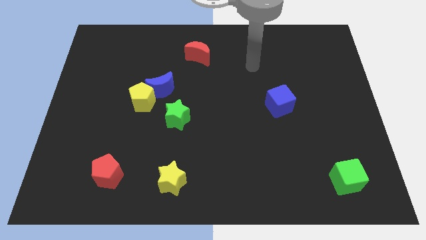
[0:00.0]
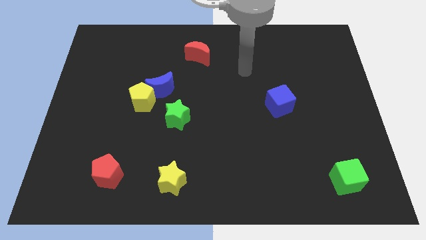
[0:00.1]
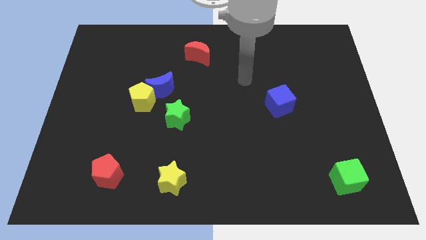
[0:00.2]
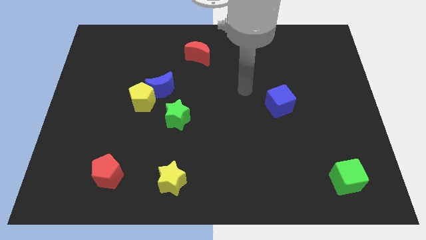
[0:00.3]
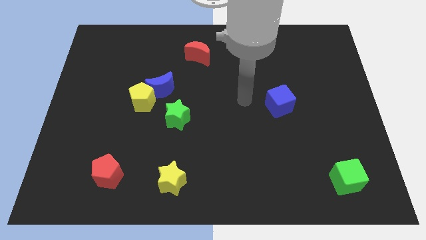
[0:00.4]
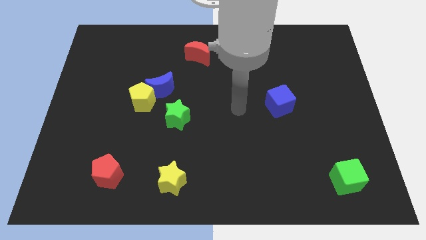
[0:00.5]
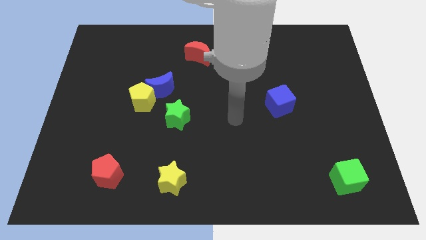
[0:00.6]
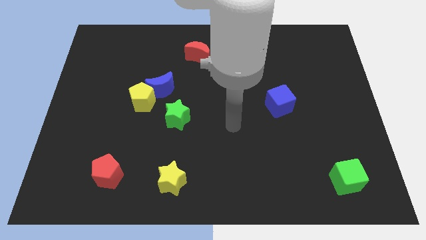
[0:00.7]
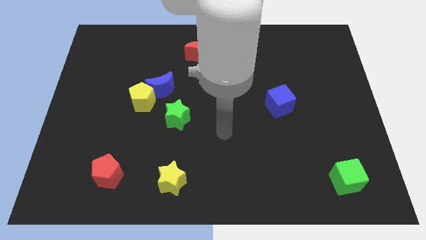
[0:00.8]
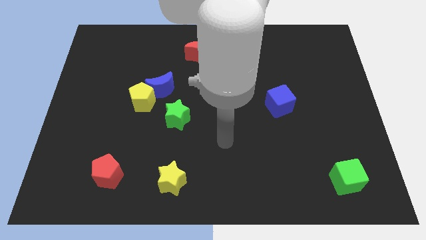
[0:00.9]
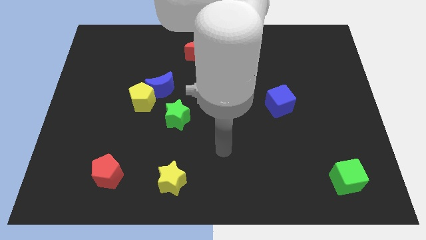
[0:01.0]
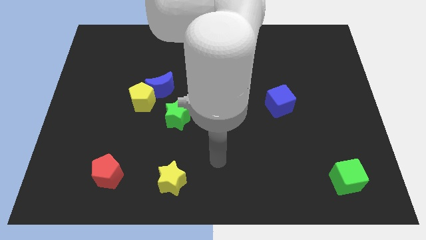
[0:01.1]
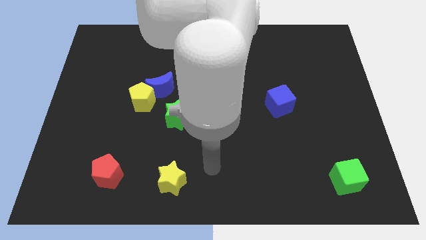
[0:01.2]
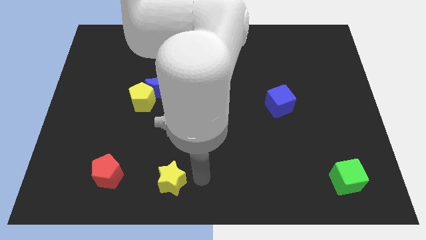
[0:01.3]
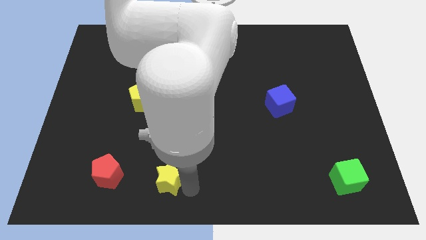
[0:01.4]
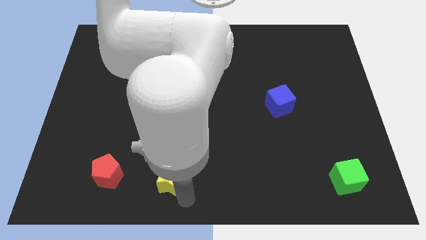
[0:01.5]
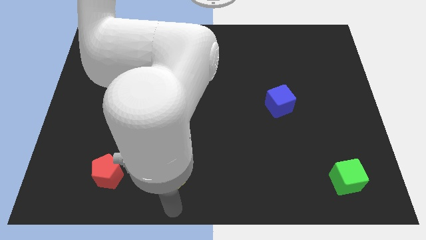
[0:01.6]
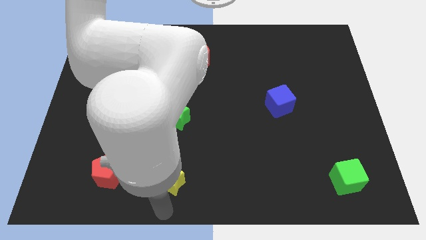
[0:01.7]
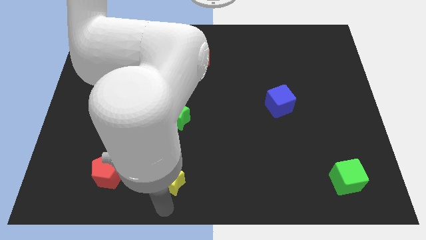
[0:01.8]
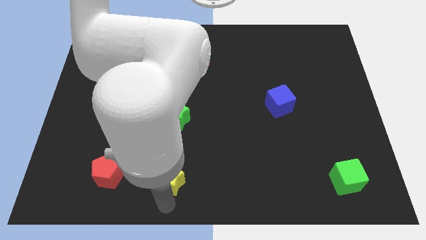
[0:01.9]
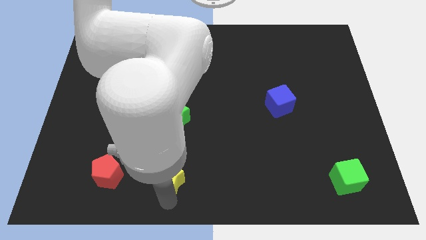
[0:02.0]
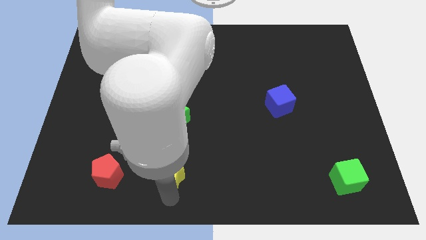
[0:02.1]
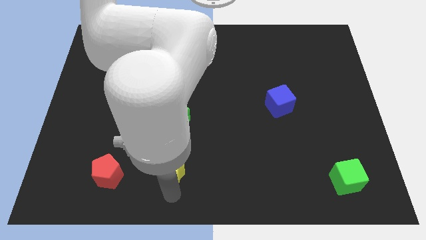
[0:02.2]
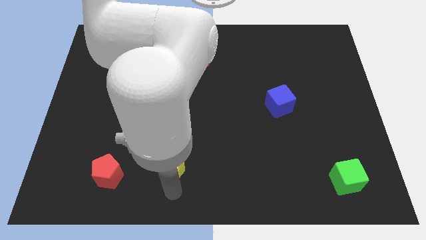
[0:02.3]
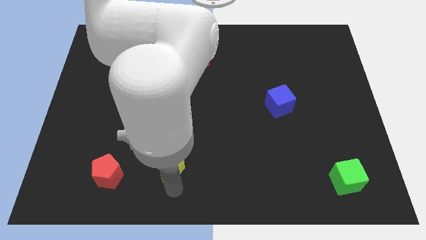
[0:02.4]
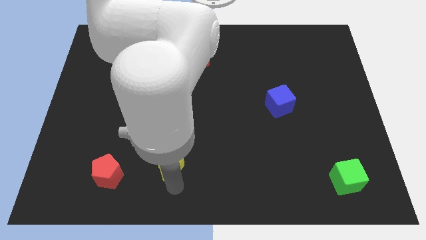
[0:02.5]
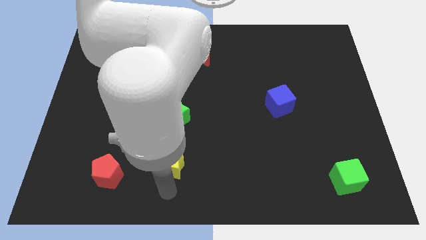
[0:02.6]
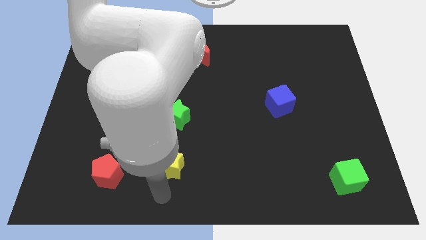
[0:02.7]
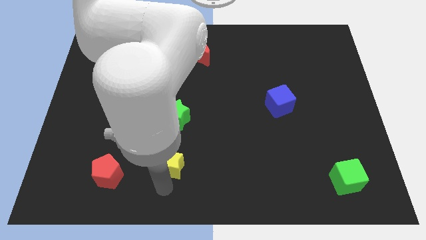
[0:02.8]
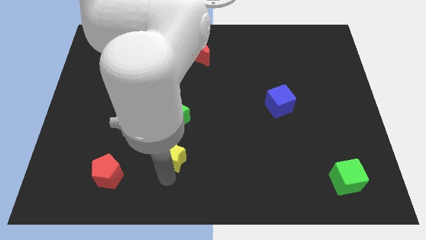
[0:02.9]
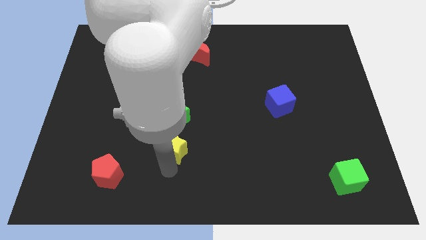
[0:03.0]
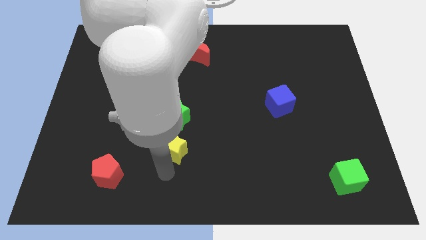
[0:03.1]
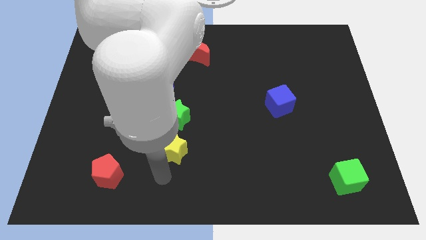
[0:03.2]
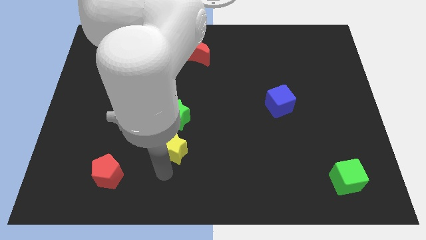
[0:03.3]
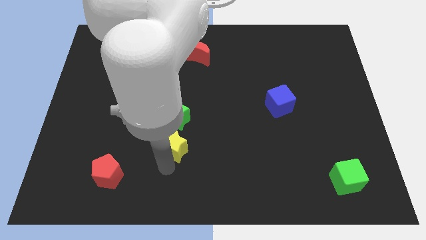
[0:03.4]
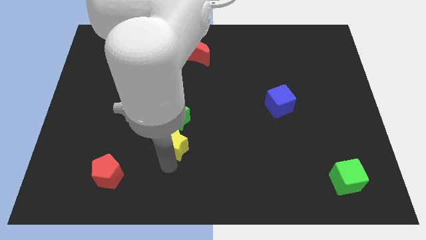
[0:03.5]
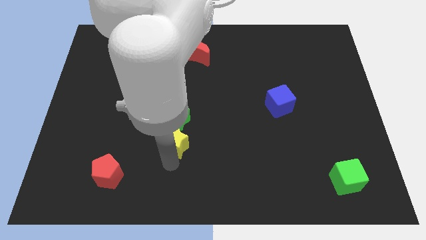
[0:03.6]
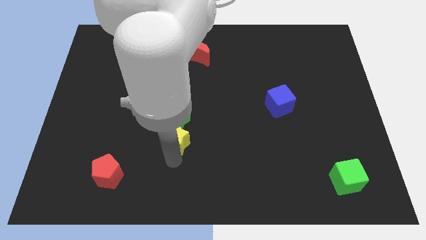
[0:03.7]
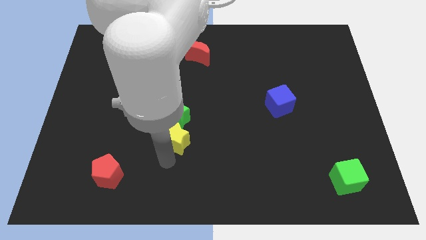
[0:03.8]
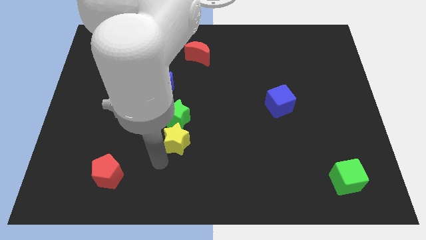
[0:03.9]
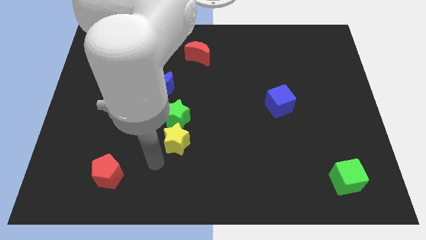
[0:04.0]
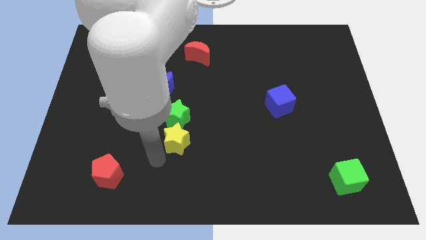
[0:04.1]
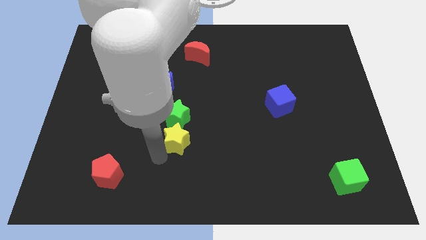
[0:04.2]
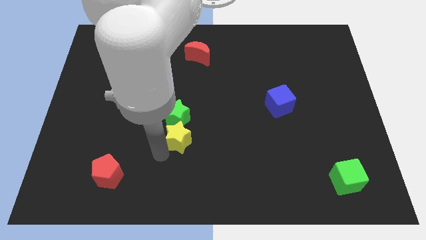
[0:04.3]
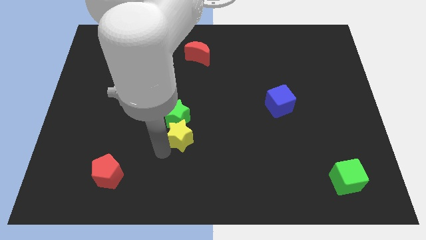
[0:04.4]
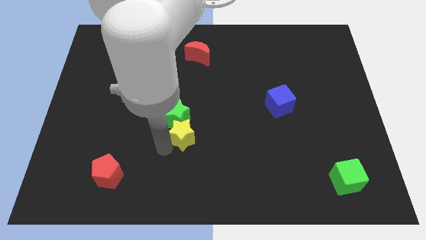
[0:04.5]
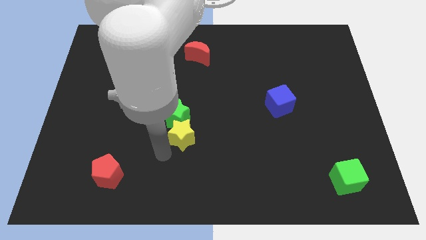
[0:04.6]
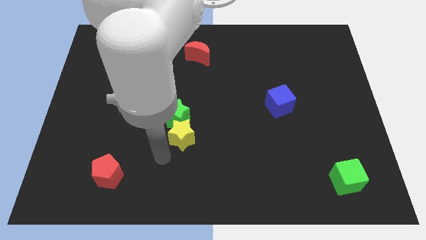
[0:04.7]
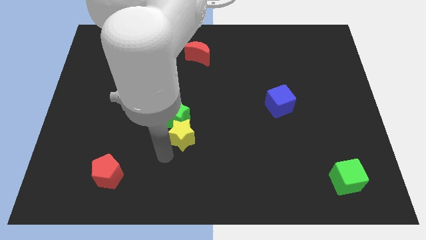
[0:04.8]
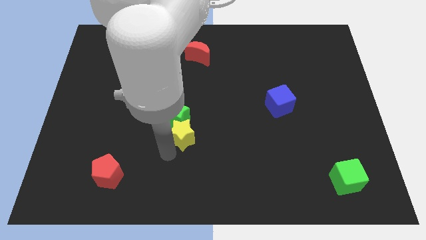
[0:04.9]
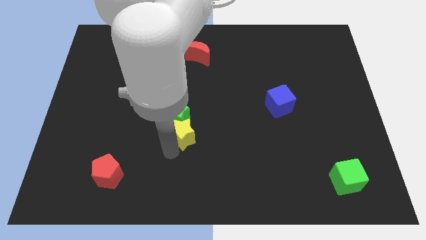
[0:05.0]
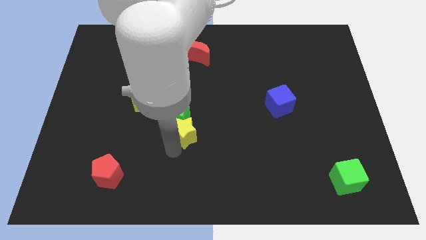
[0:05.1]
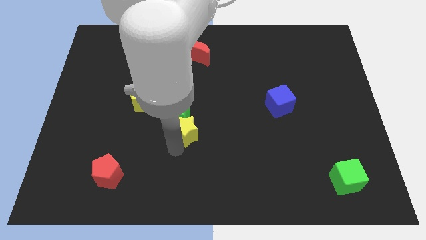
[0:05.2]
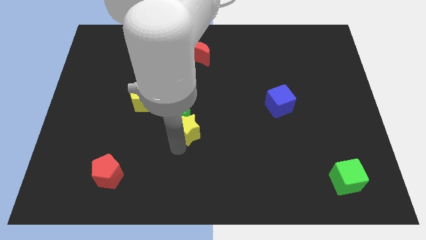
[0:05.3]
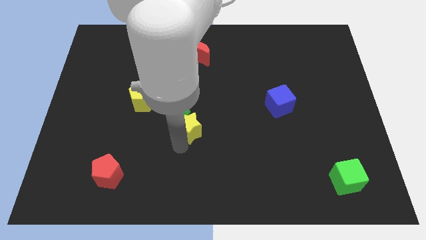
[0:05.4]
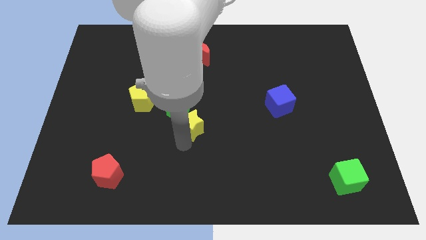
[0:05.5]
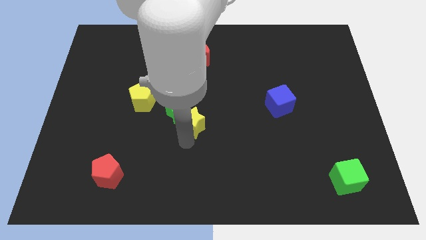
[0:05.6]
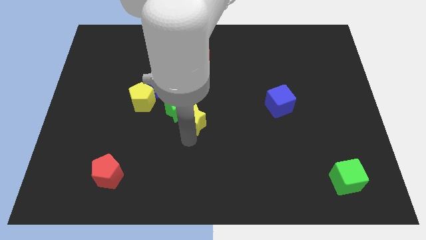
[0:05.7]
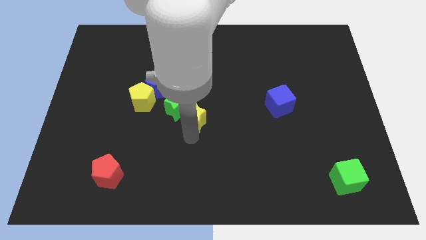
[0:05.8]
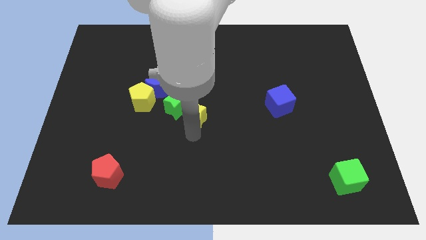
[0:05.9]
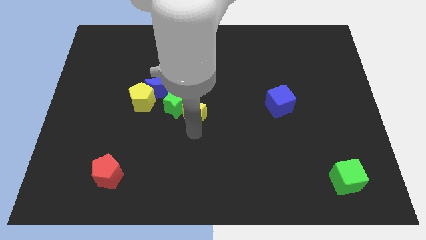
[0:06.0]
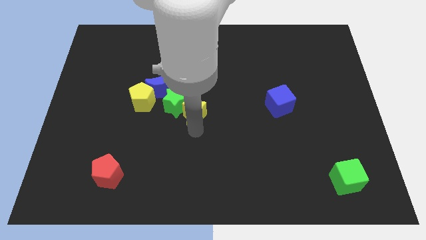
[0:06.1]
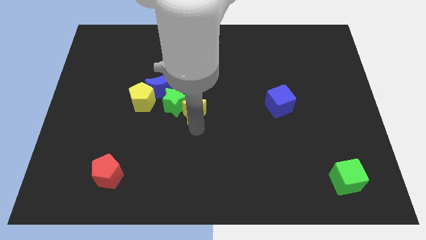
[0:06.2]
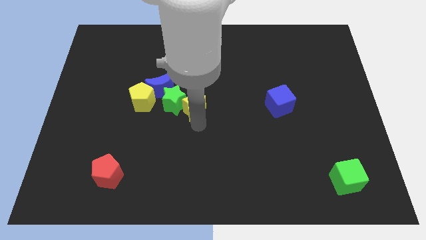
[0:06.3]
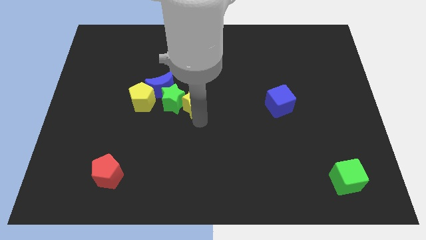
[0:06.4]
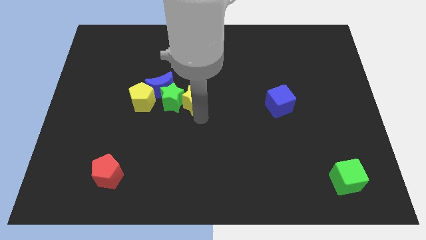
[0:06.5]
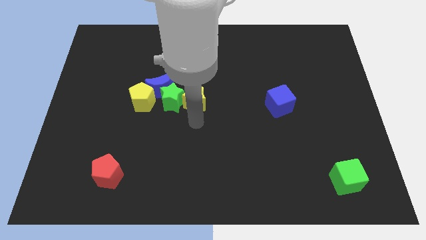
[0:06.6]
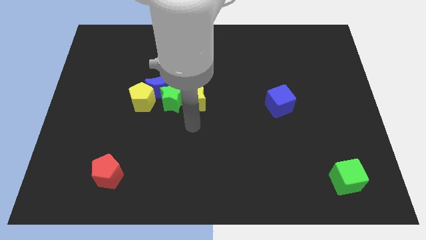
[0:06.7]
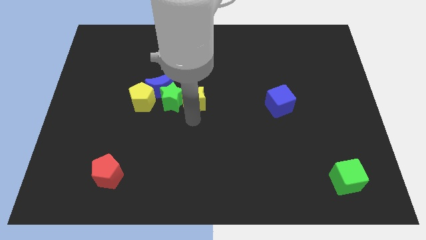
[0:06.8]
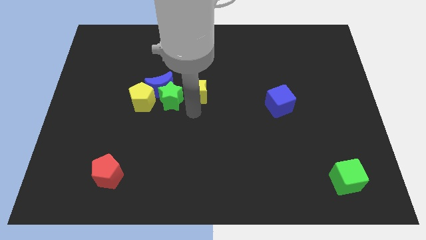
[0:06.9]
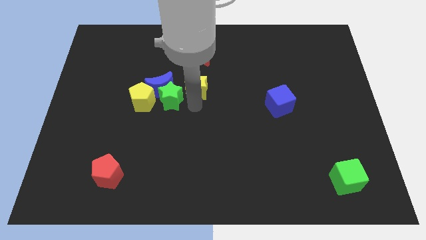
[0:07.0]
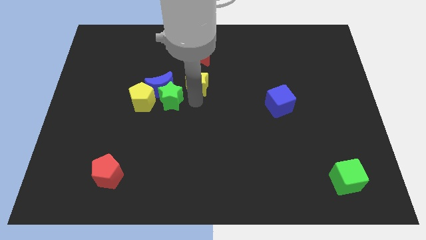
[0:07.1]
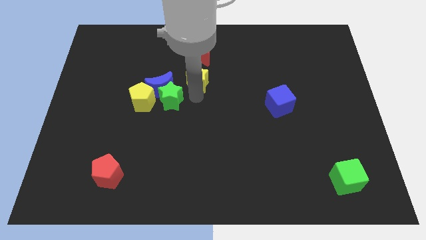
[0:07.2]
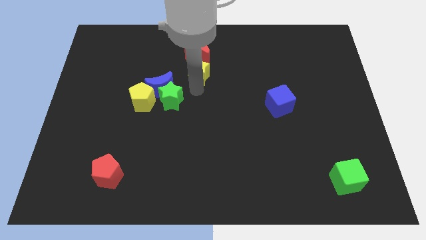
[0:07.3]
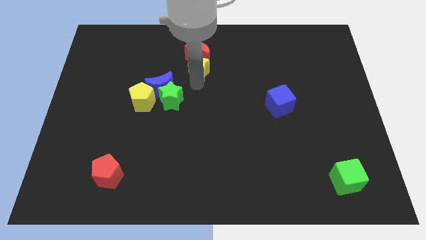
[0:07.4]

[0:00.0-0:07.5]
slide the yellow star next to the red moon
